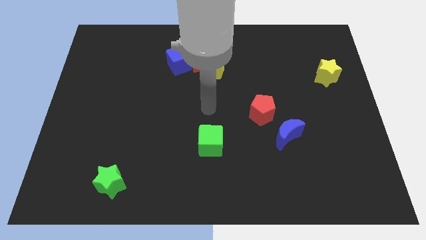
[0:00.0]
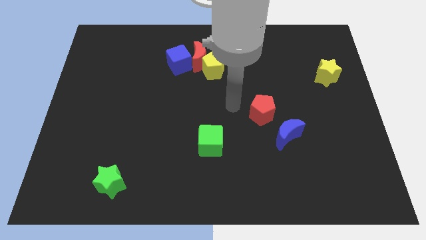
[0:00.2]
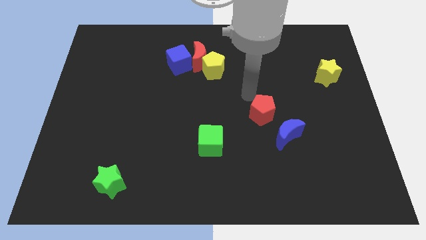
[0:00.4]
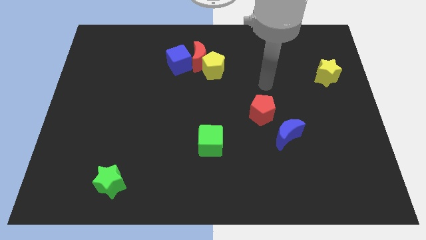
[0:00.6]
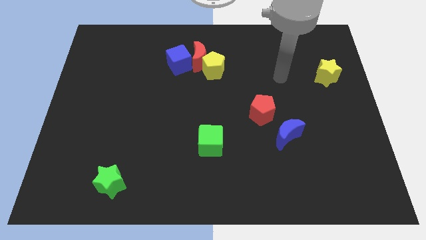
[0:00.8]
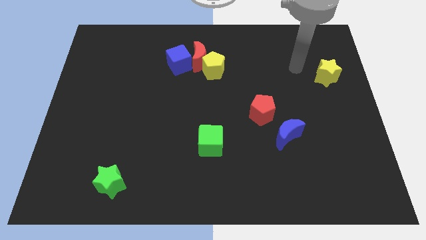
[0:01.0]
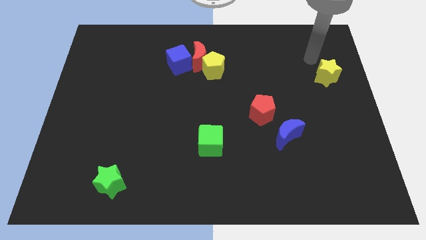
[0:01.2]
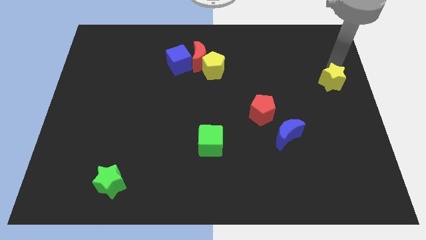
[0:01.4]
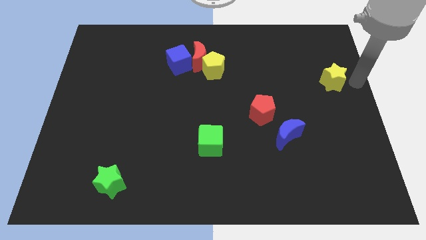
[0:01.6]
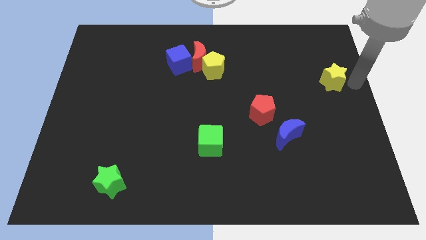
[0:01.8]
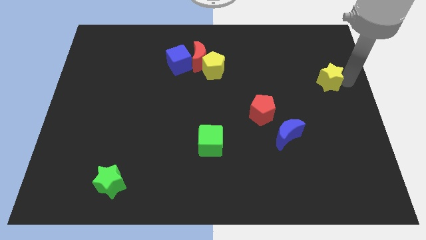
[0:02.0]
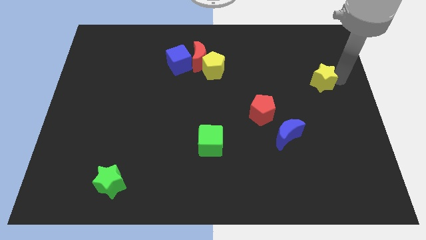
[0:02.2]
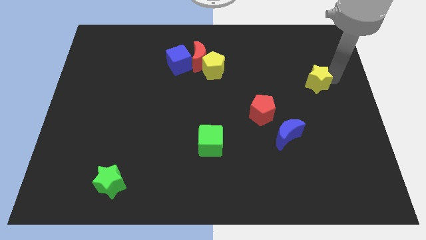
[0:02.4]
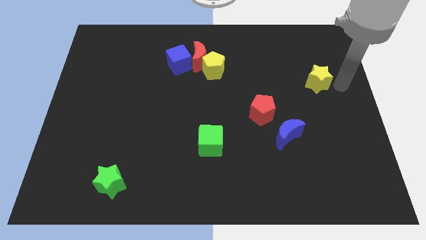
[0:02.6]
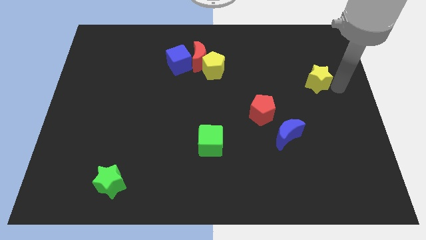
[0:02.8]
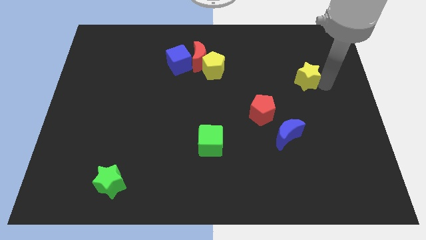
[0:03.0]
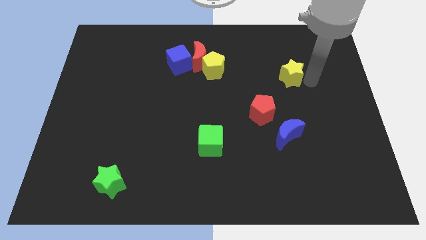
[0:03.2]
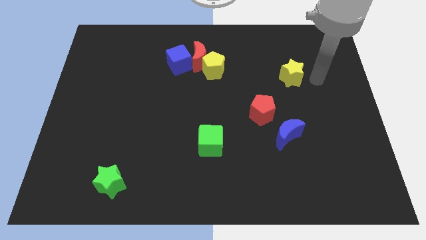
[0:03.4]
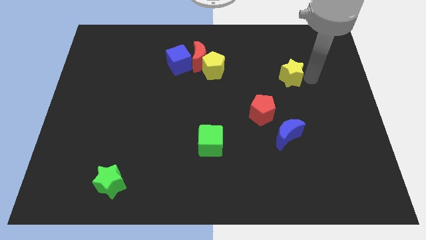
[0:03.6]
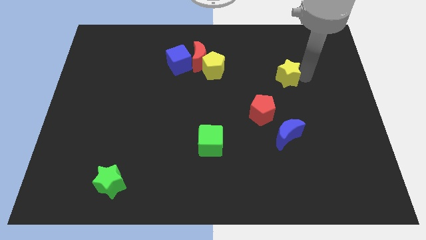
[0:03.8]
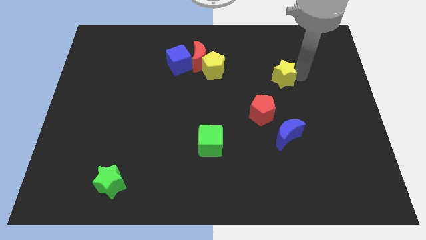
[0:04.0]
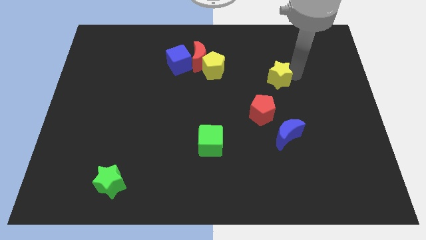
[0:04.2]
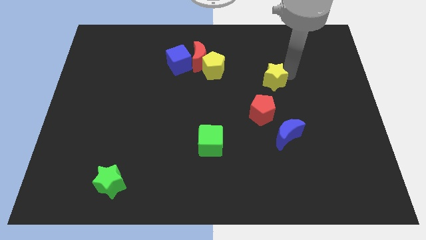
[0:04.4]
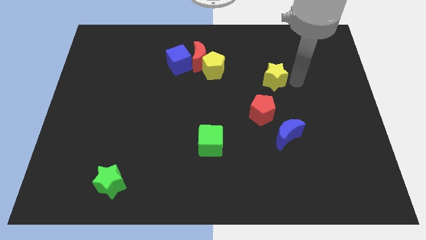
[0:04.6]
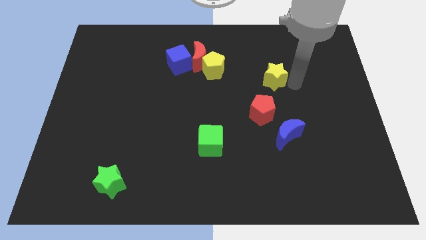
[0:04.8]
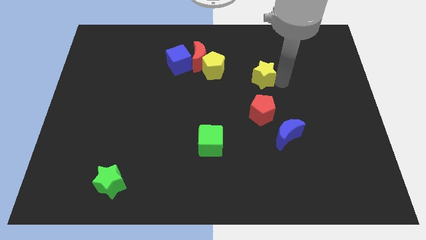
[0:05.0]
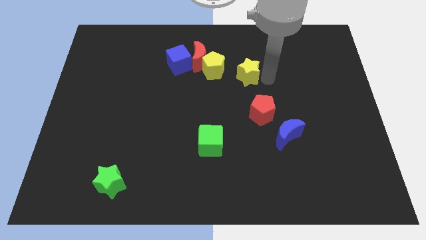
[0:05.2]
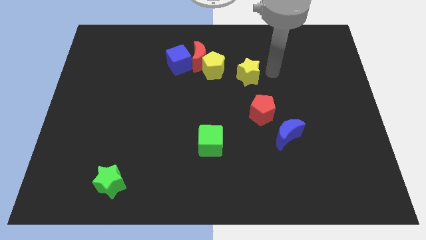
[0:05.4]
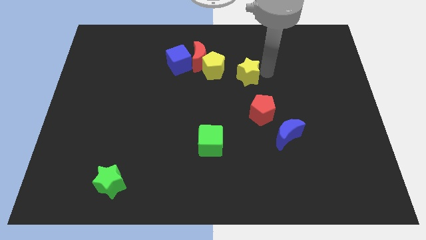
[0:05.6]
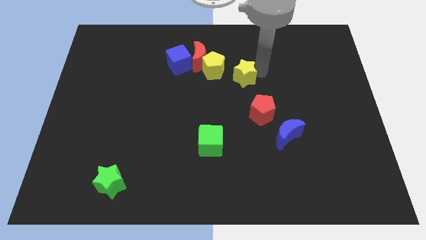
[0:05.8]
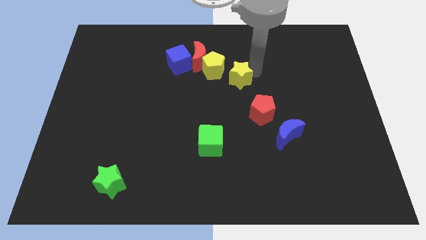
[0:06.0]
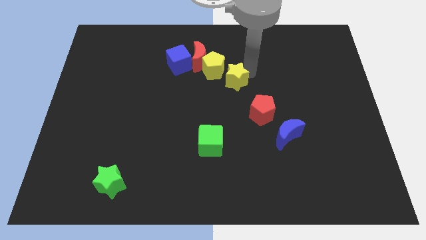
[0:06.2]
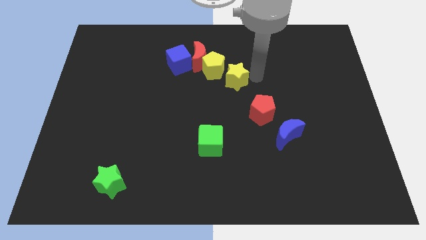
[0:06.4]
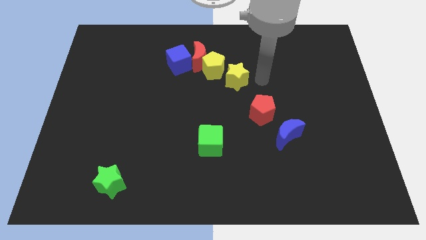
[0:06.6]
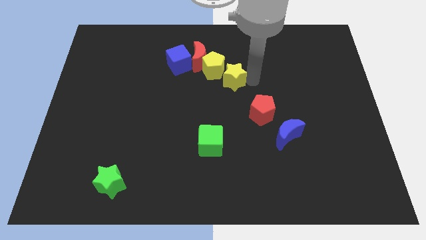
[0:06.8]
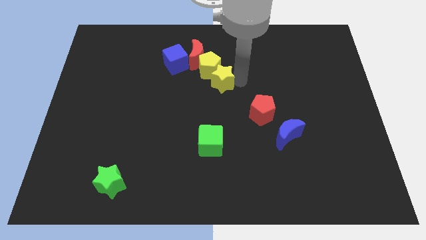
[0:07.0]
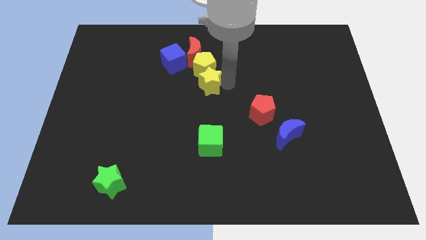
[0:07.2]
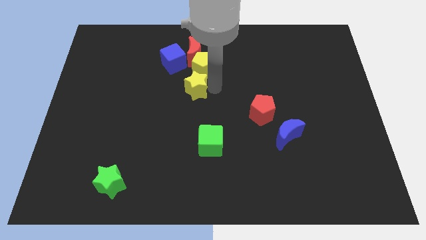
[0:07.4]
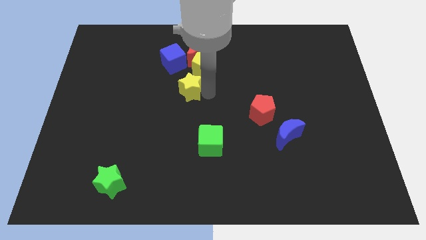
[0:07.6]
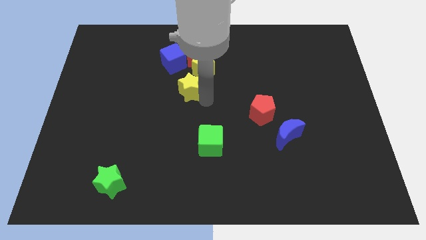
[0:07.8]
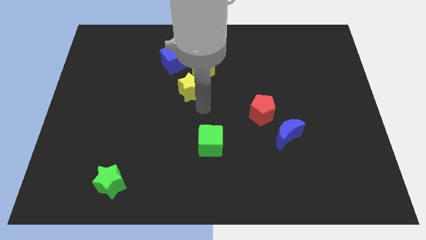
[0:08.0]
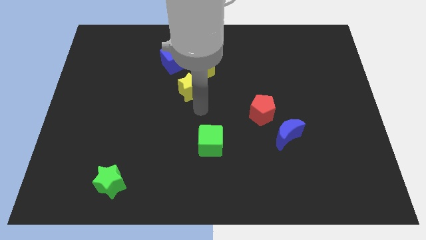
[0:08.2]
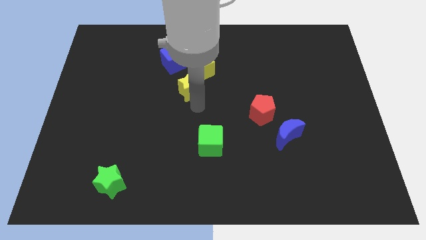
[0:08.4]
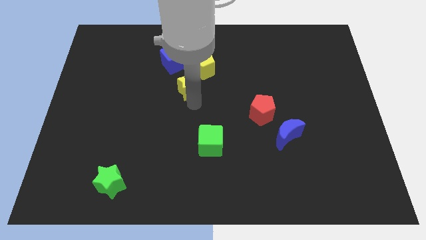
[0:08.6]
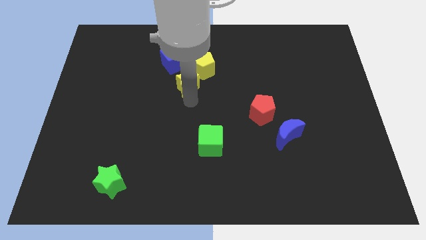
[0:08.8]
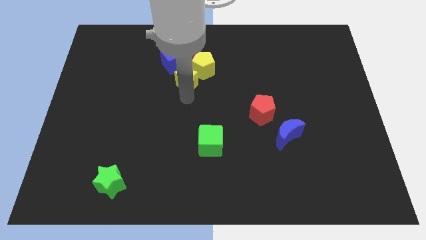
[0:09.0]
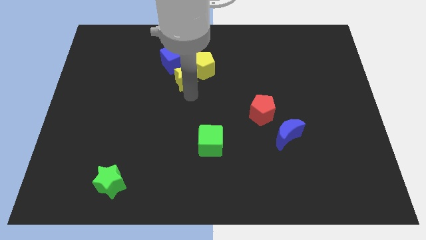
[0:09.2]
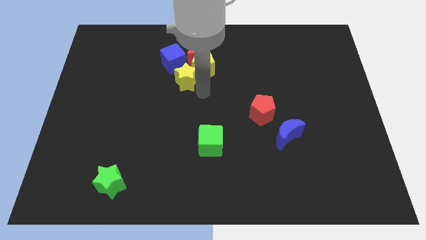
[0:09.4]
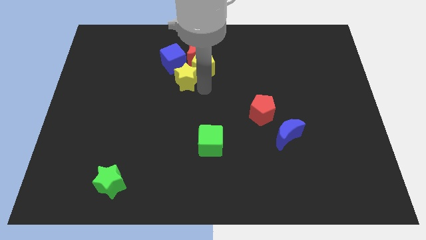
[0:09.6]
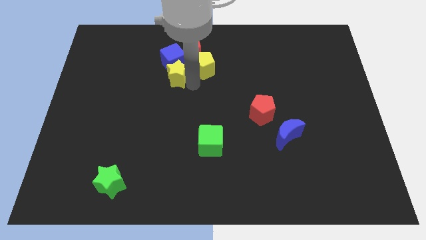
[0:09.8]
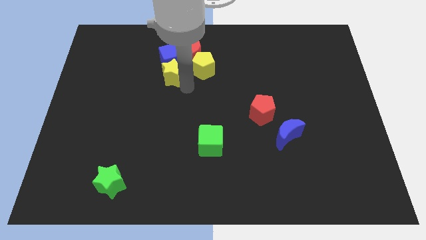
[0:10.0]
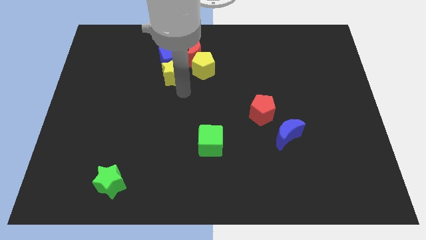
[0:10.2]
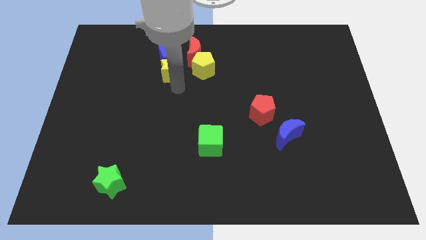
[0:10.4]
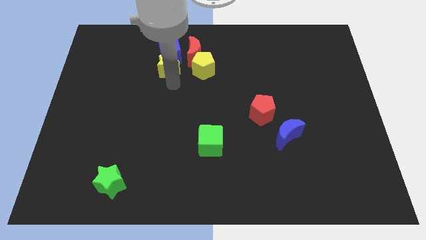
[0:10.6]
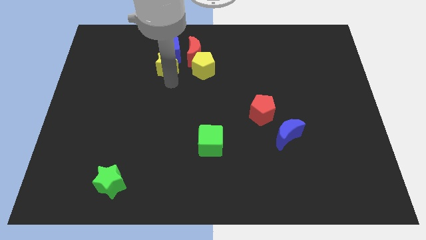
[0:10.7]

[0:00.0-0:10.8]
put the yellow star to the left side of the red moon

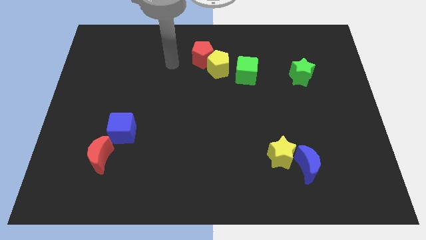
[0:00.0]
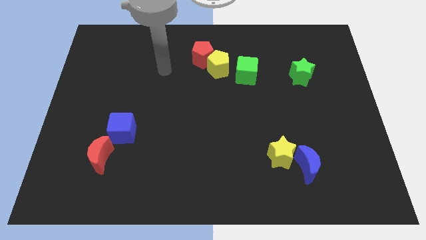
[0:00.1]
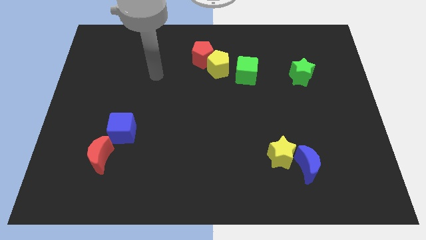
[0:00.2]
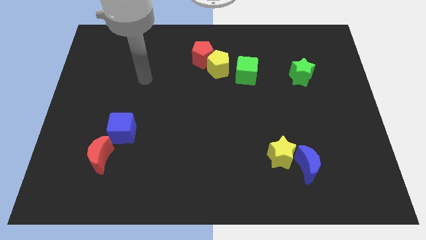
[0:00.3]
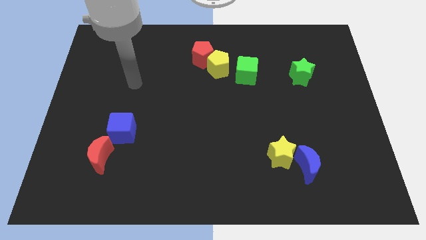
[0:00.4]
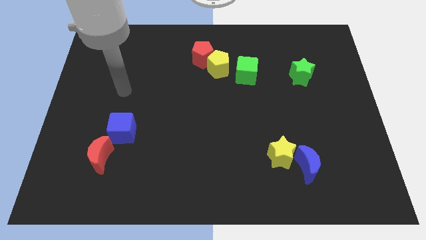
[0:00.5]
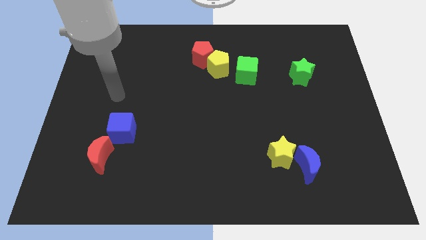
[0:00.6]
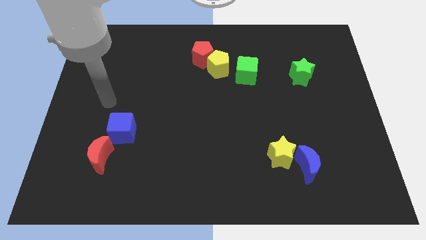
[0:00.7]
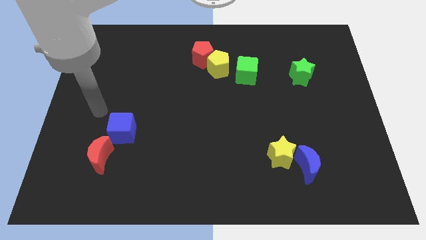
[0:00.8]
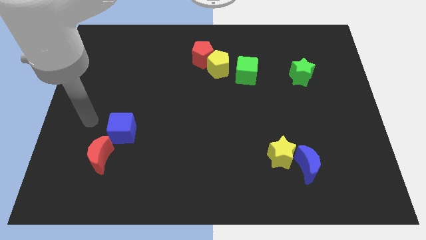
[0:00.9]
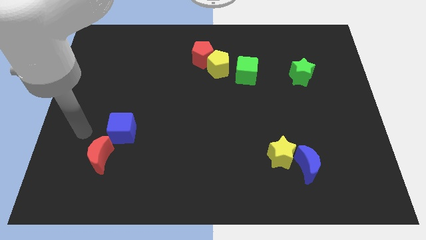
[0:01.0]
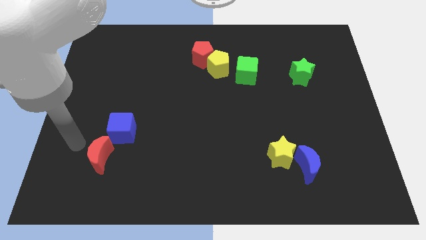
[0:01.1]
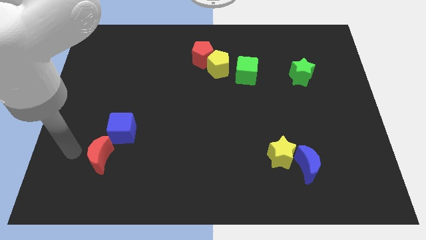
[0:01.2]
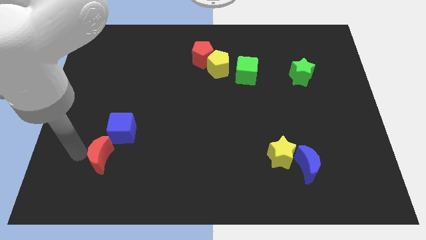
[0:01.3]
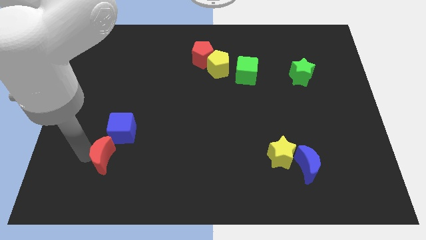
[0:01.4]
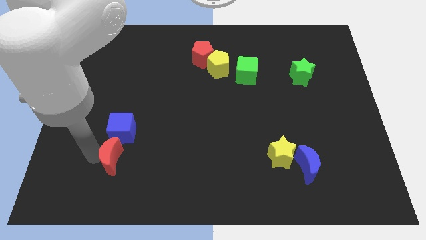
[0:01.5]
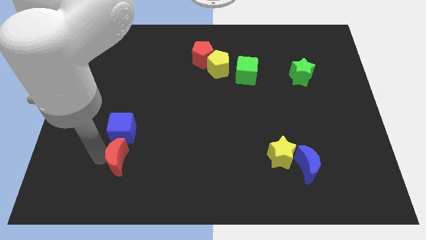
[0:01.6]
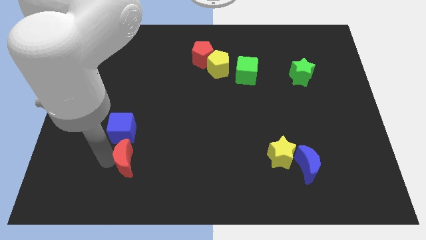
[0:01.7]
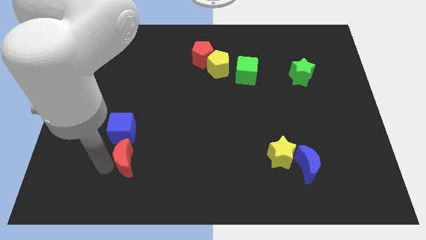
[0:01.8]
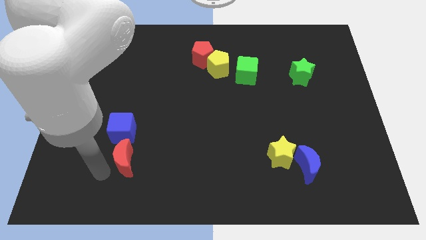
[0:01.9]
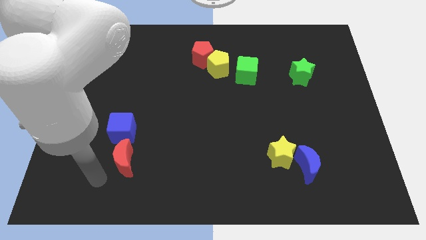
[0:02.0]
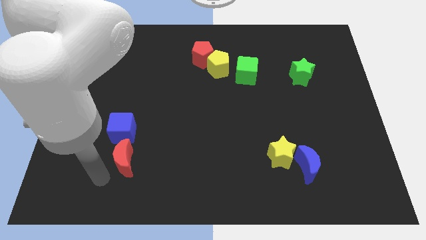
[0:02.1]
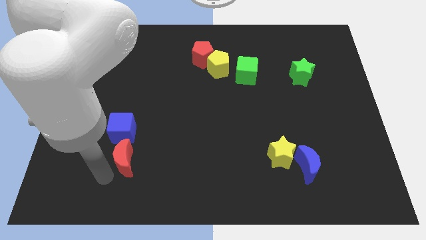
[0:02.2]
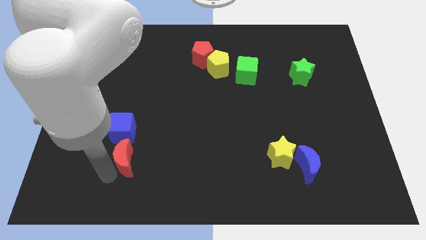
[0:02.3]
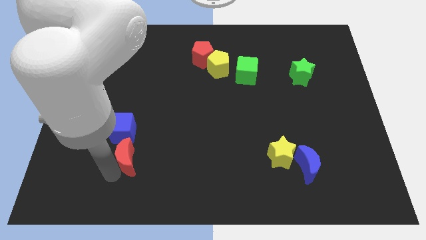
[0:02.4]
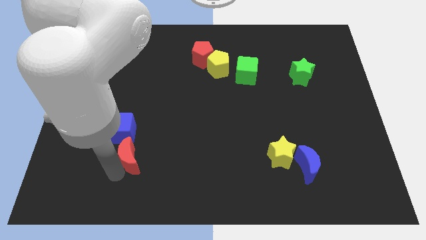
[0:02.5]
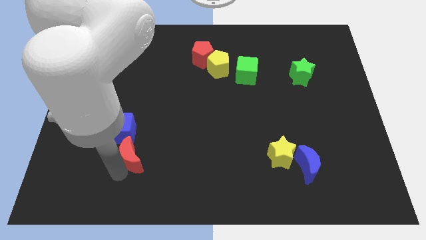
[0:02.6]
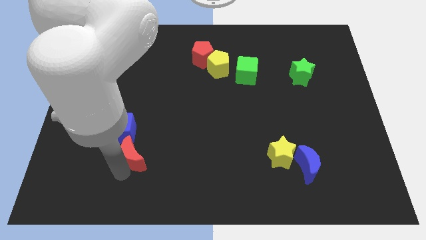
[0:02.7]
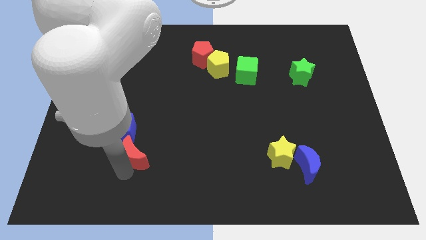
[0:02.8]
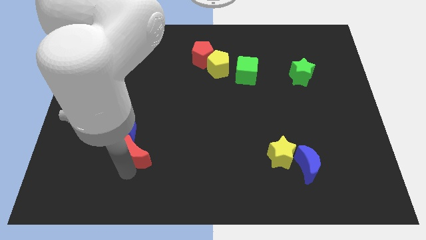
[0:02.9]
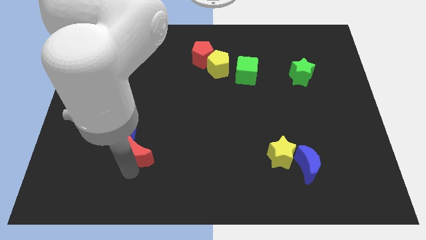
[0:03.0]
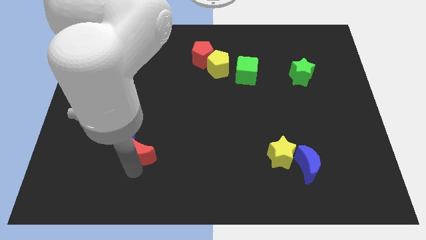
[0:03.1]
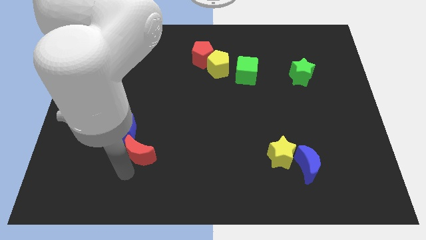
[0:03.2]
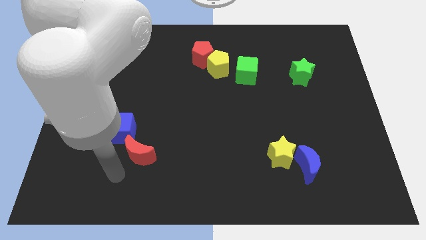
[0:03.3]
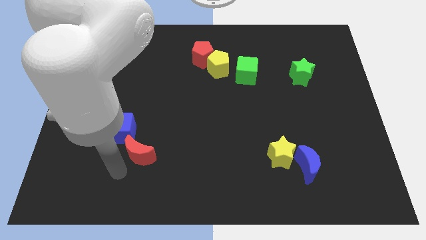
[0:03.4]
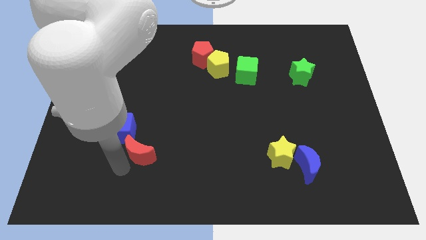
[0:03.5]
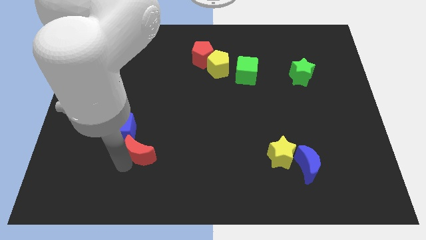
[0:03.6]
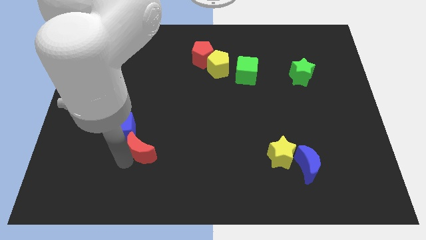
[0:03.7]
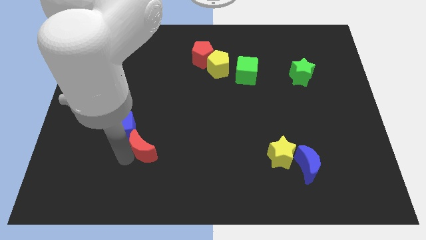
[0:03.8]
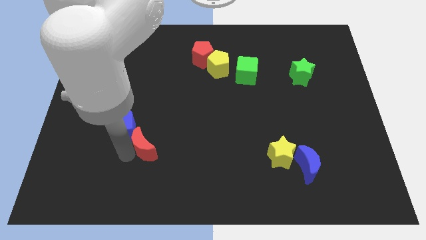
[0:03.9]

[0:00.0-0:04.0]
slide the red moon right of the blue cube
